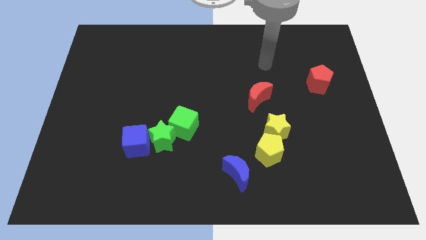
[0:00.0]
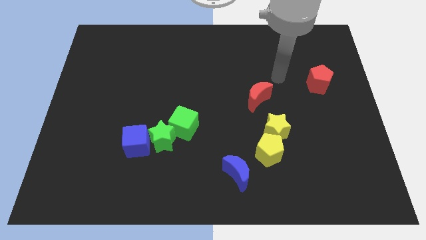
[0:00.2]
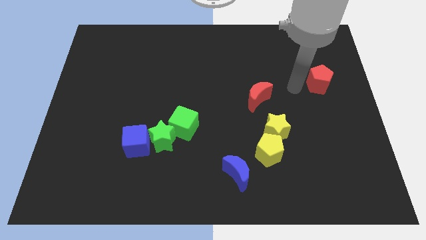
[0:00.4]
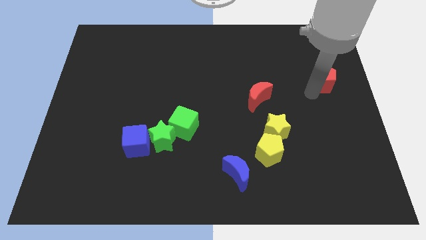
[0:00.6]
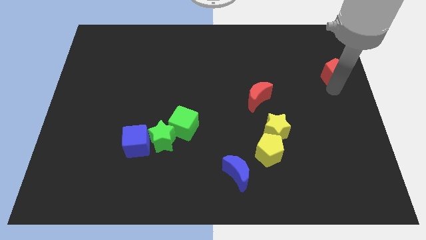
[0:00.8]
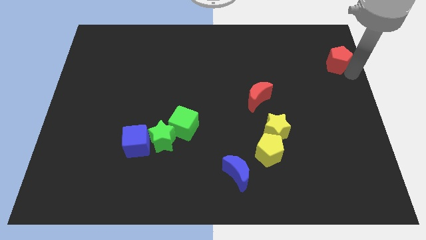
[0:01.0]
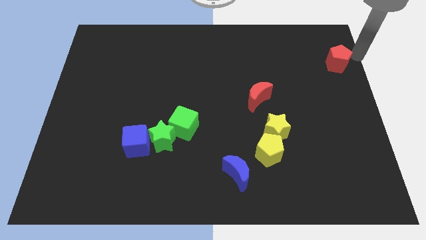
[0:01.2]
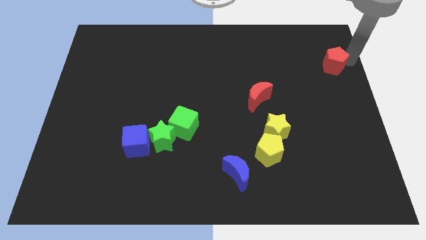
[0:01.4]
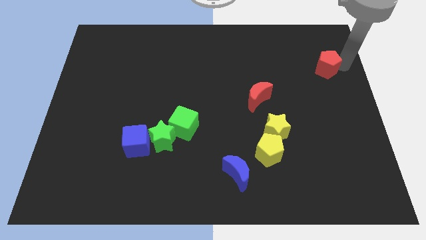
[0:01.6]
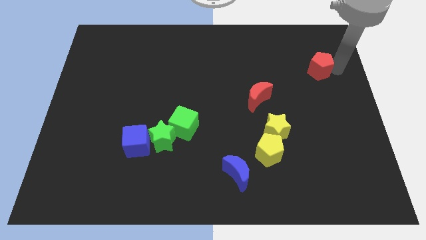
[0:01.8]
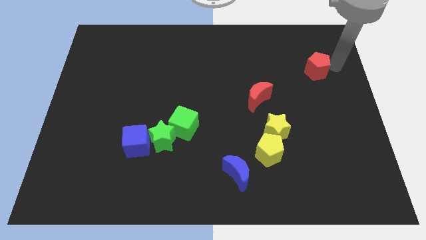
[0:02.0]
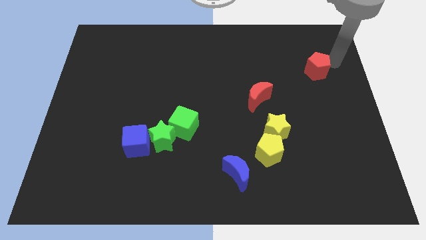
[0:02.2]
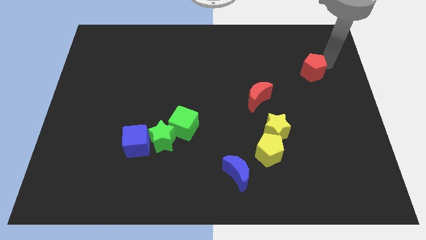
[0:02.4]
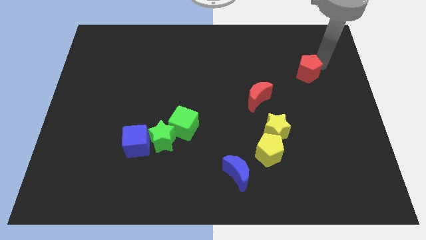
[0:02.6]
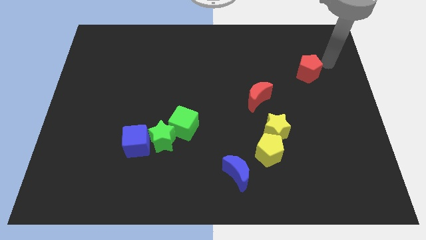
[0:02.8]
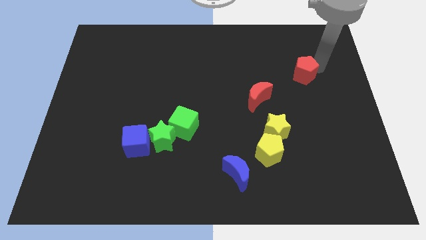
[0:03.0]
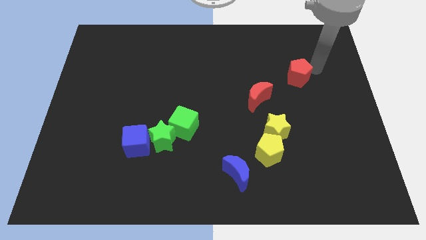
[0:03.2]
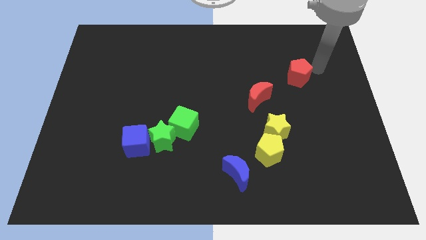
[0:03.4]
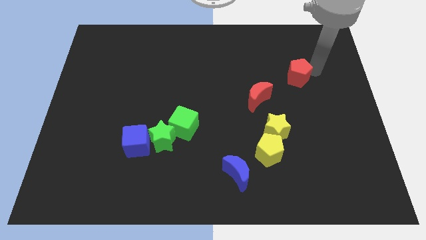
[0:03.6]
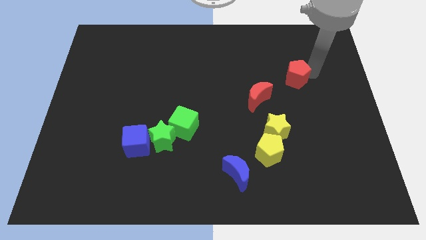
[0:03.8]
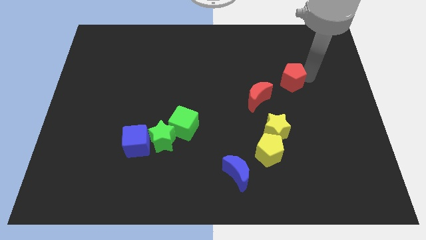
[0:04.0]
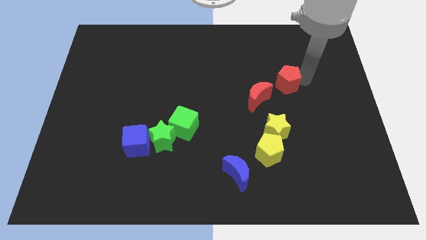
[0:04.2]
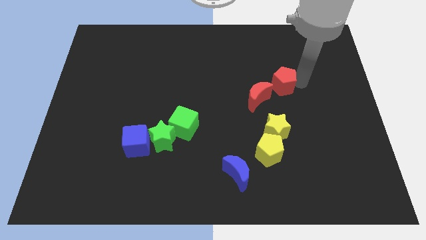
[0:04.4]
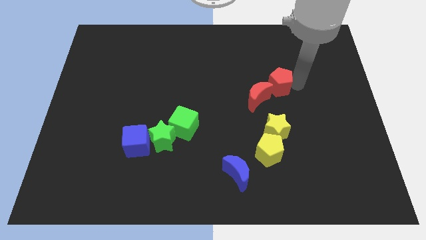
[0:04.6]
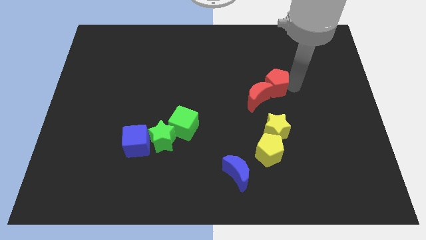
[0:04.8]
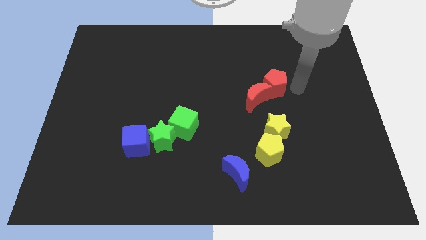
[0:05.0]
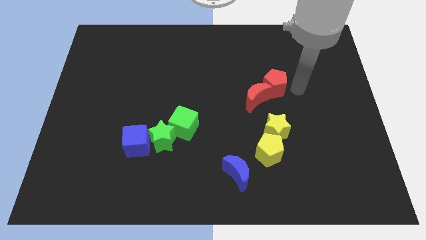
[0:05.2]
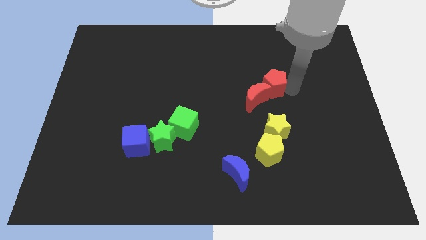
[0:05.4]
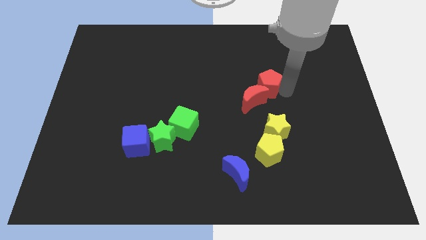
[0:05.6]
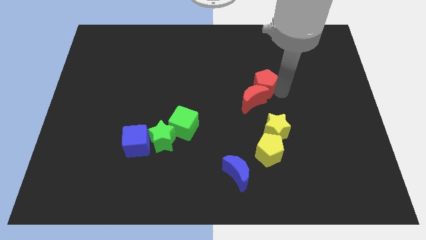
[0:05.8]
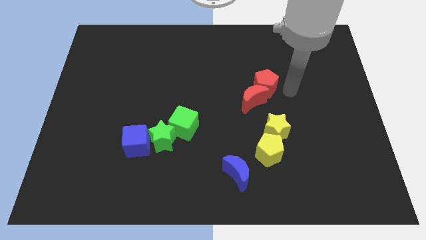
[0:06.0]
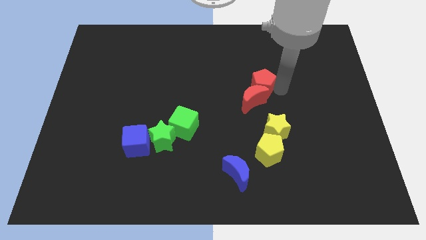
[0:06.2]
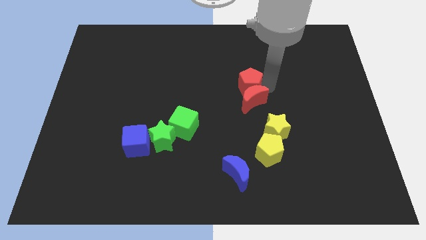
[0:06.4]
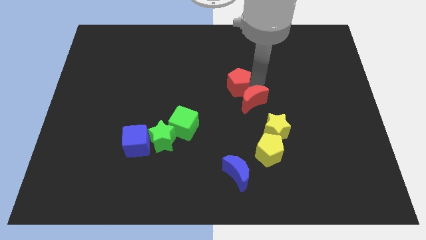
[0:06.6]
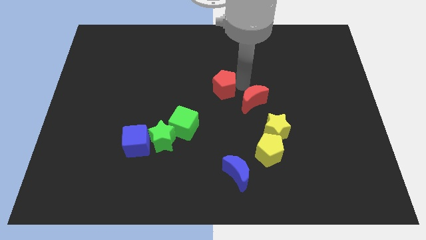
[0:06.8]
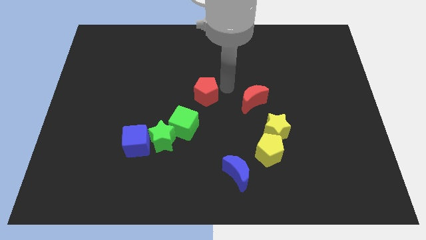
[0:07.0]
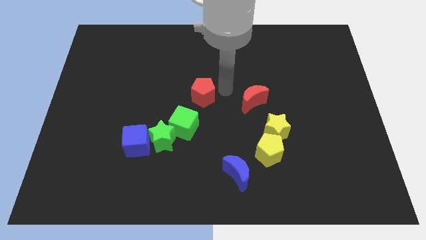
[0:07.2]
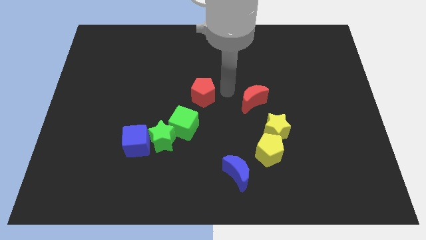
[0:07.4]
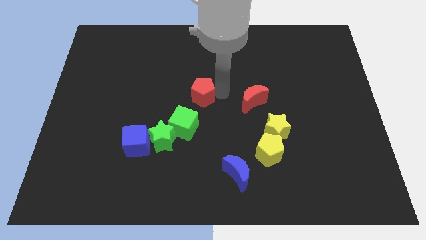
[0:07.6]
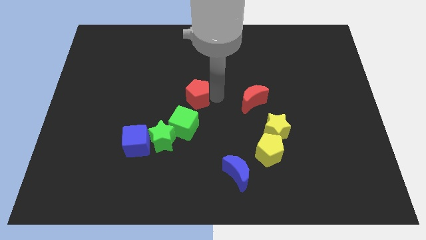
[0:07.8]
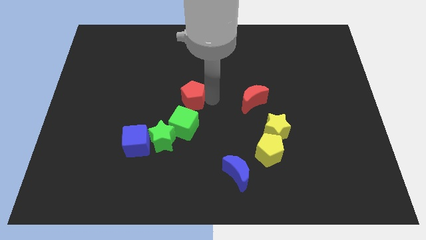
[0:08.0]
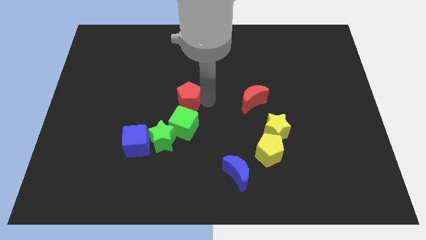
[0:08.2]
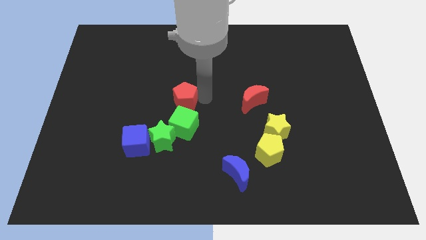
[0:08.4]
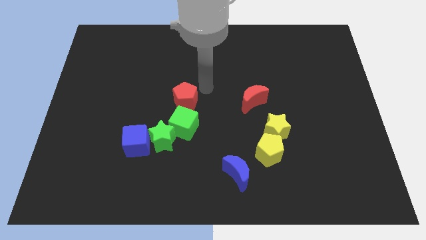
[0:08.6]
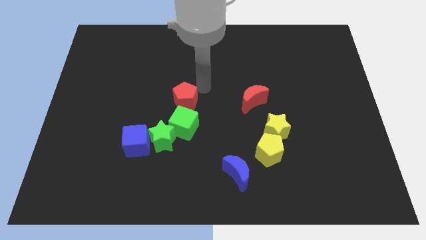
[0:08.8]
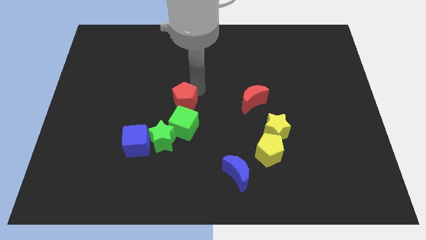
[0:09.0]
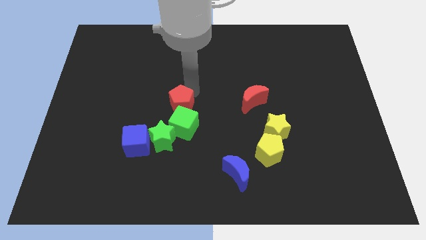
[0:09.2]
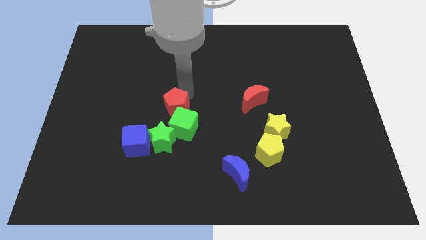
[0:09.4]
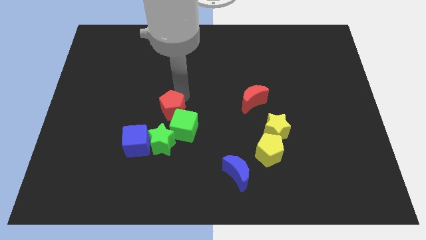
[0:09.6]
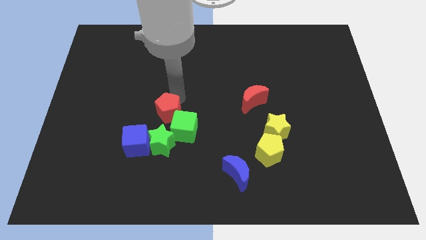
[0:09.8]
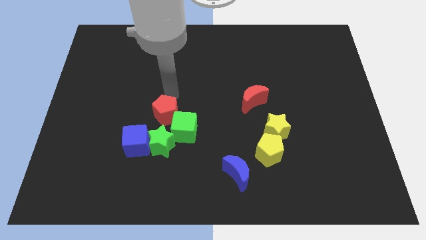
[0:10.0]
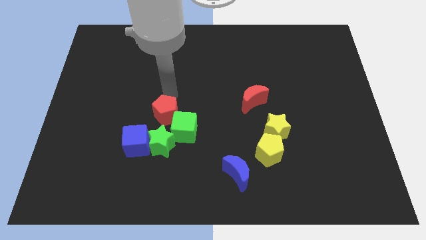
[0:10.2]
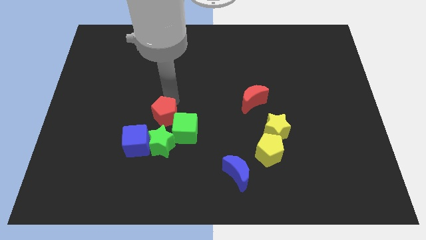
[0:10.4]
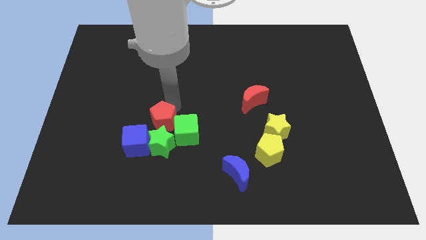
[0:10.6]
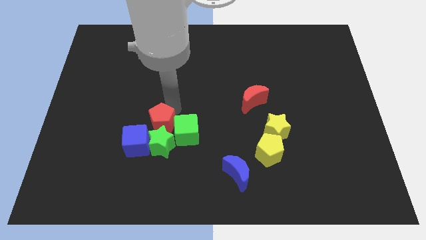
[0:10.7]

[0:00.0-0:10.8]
move the red pentagon close to the green star

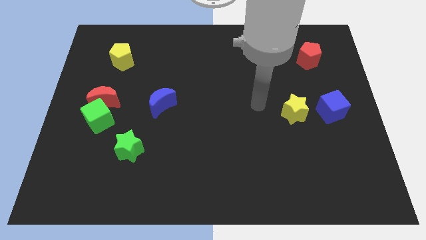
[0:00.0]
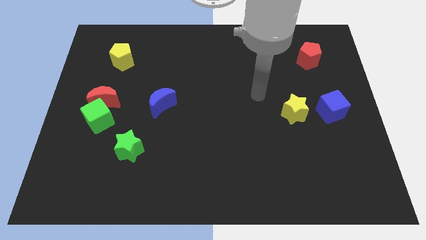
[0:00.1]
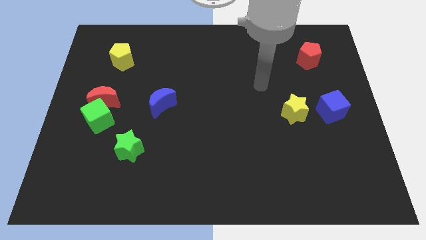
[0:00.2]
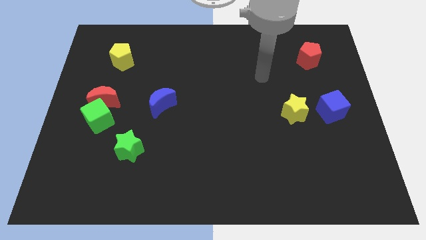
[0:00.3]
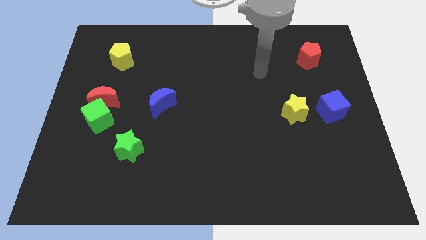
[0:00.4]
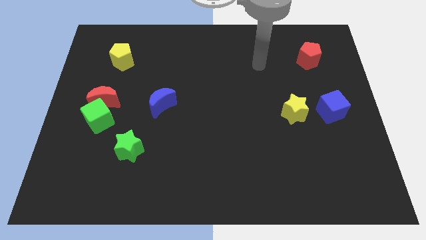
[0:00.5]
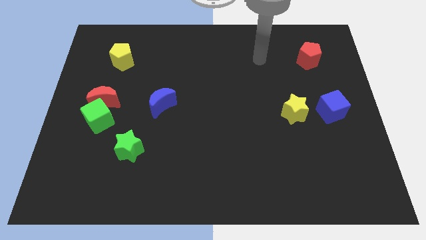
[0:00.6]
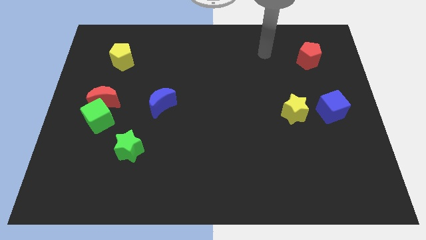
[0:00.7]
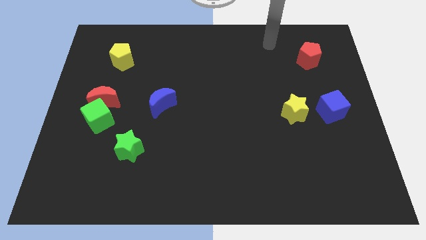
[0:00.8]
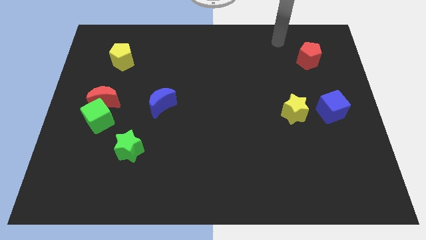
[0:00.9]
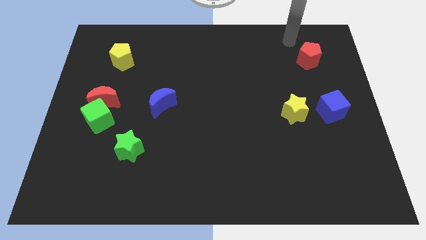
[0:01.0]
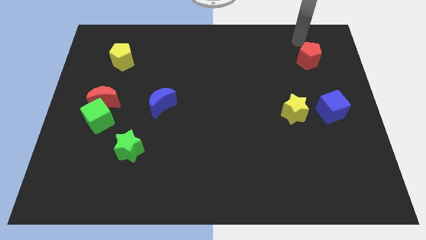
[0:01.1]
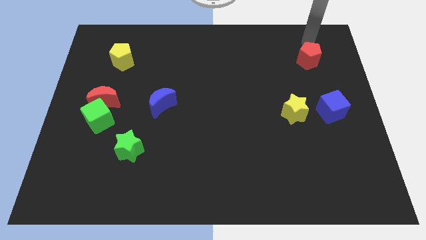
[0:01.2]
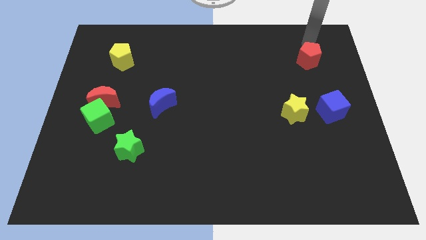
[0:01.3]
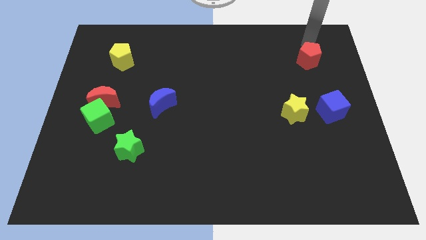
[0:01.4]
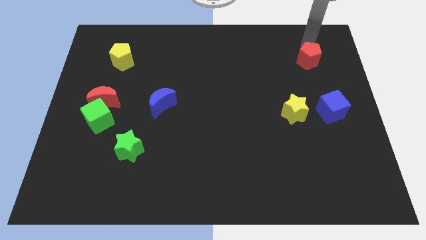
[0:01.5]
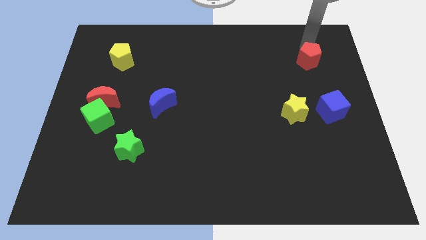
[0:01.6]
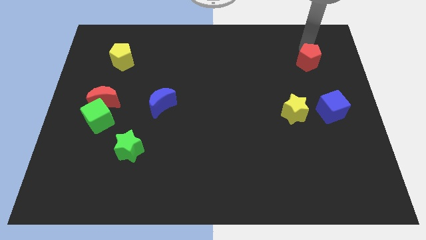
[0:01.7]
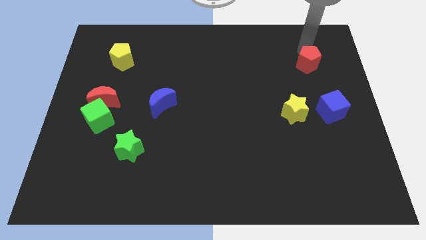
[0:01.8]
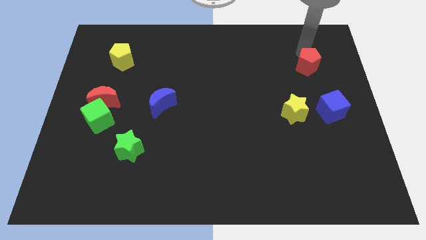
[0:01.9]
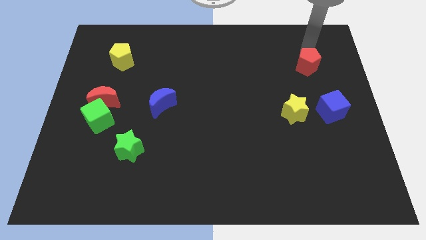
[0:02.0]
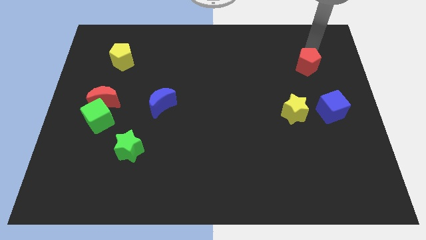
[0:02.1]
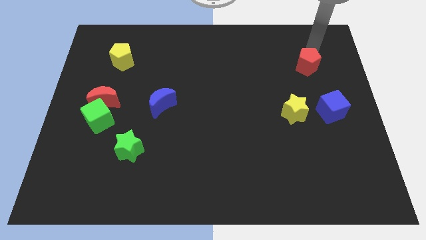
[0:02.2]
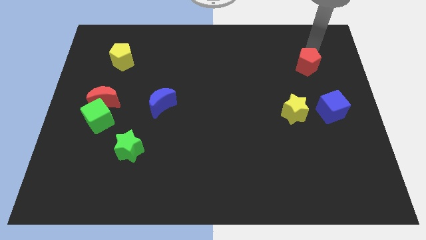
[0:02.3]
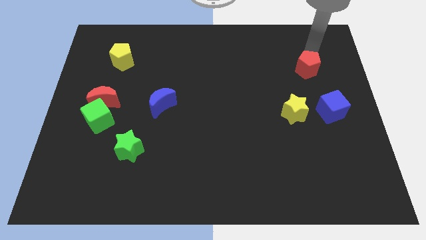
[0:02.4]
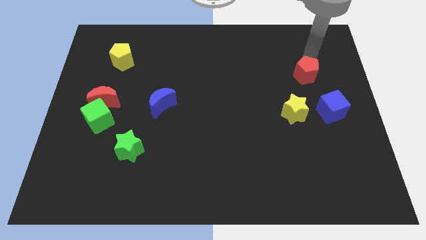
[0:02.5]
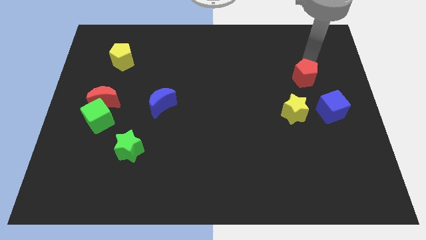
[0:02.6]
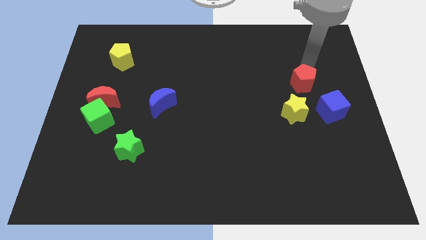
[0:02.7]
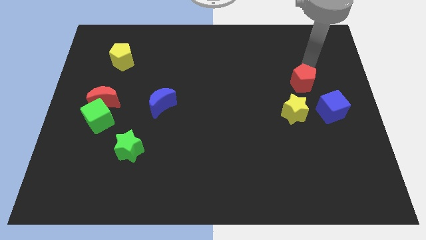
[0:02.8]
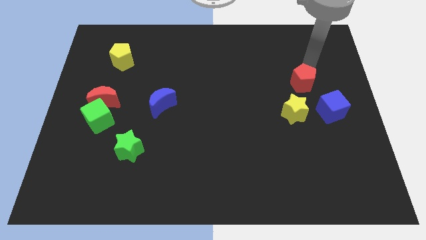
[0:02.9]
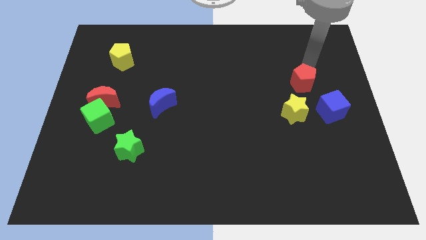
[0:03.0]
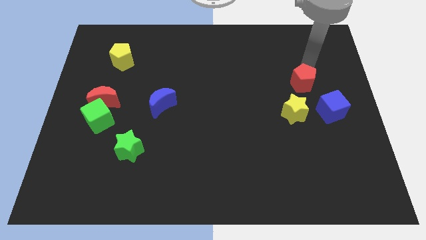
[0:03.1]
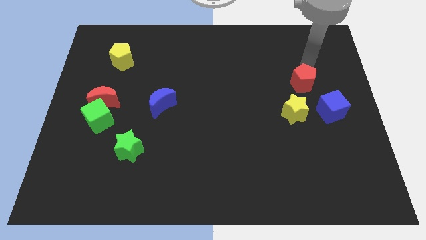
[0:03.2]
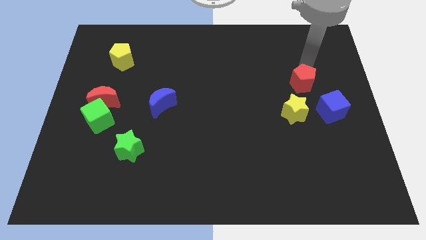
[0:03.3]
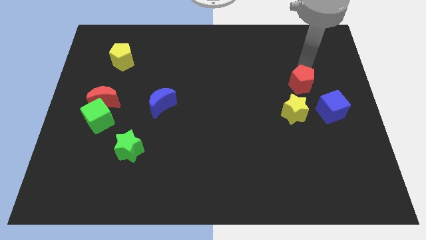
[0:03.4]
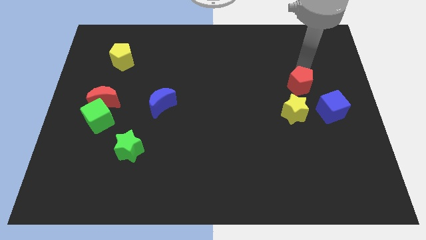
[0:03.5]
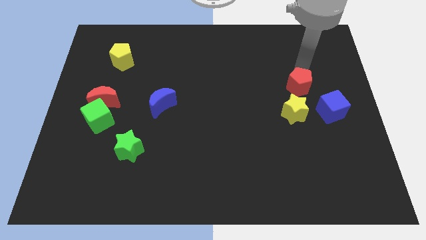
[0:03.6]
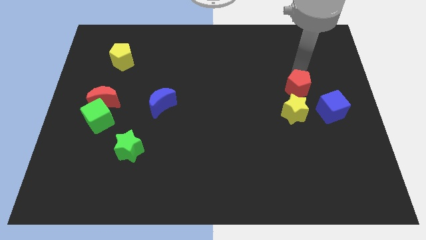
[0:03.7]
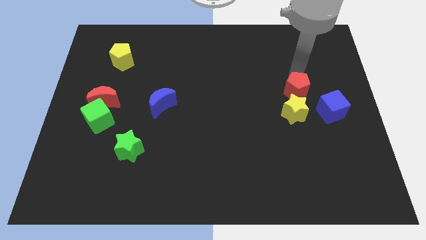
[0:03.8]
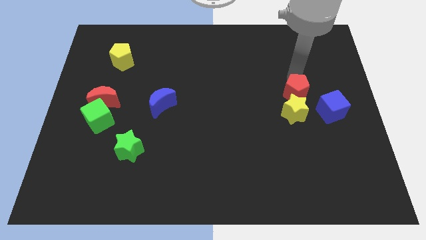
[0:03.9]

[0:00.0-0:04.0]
slide the red pentagon next to the yellow star
